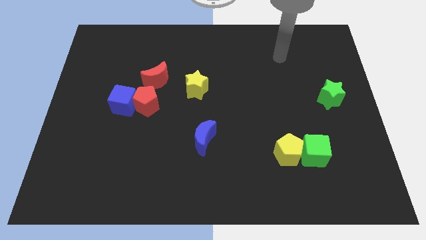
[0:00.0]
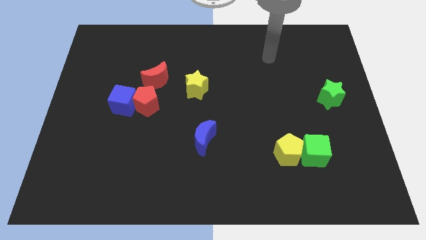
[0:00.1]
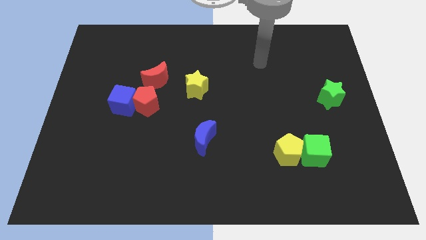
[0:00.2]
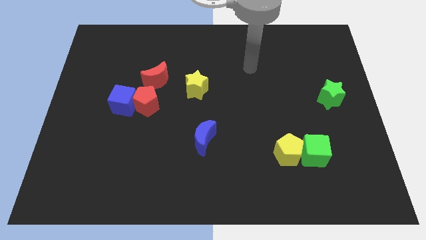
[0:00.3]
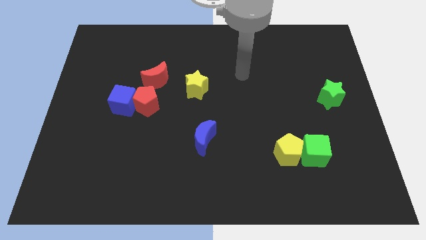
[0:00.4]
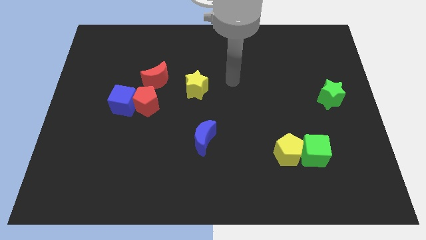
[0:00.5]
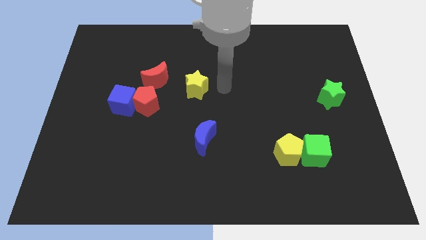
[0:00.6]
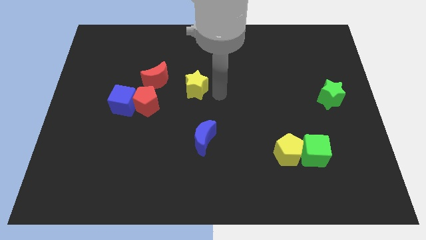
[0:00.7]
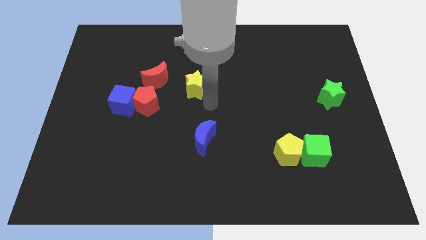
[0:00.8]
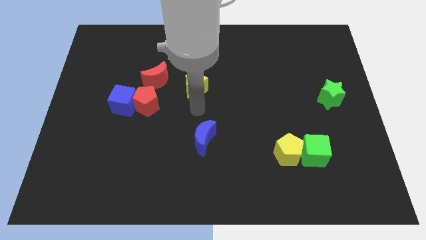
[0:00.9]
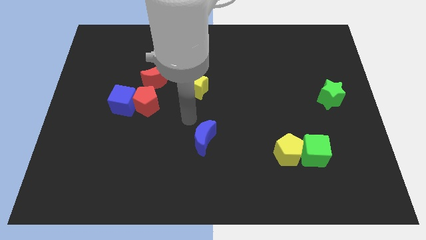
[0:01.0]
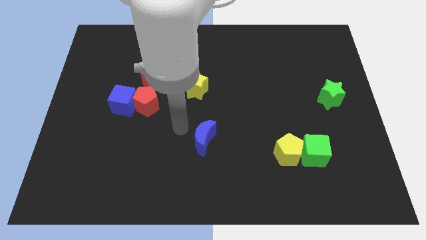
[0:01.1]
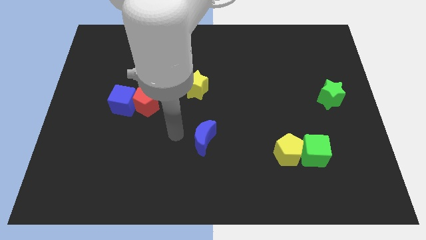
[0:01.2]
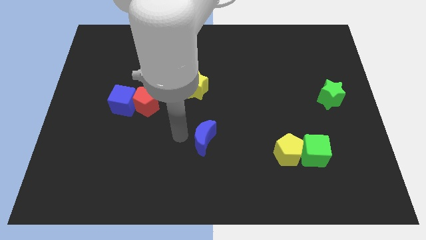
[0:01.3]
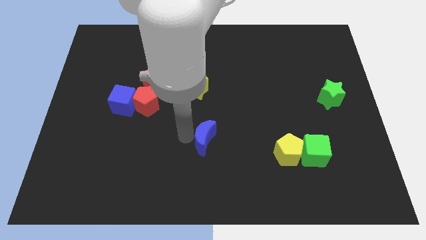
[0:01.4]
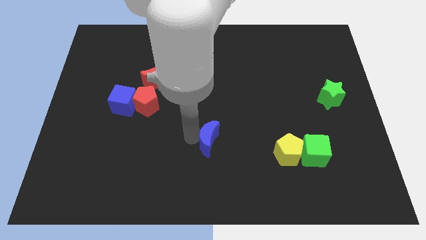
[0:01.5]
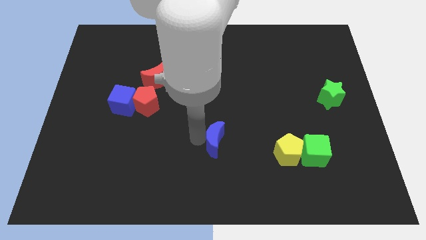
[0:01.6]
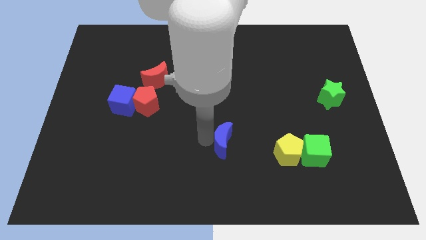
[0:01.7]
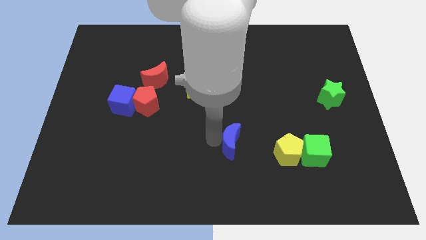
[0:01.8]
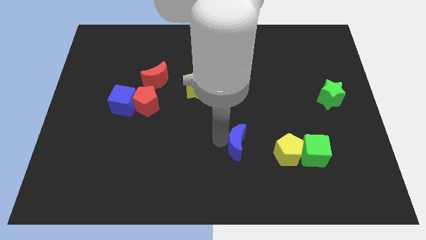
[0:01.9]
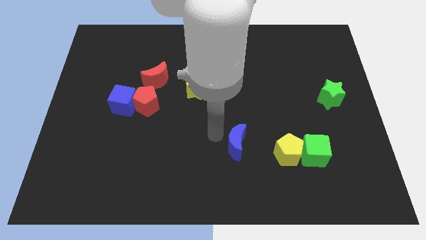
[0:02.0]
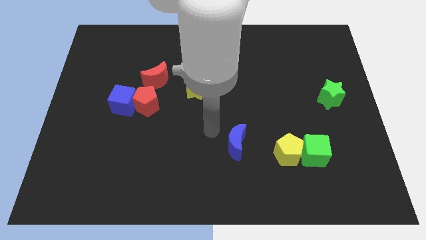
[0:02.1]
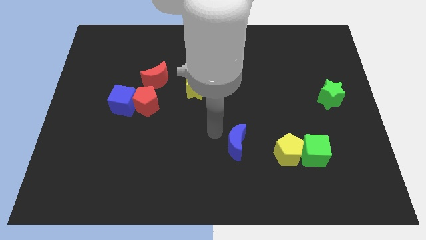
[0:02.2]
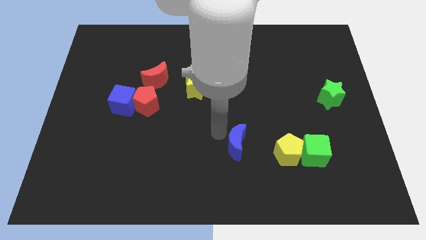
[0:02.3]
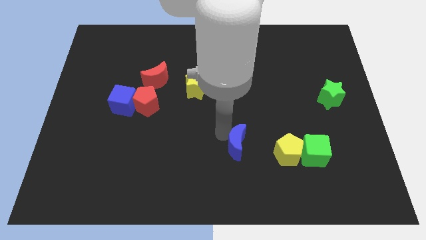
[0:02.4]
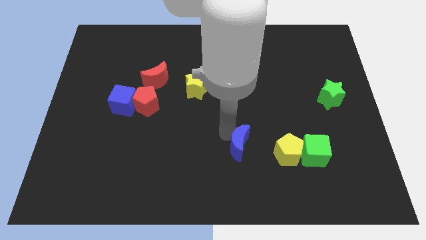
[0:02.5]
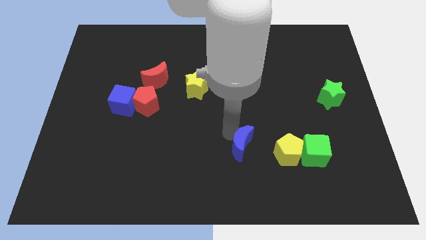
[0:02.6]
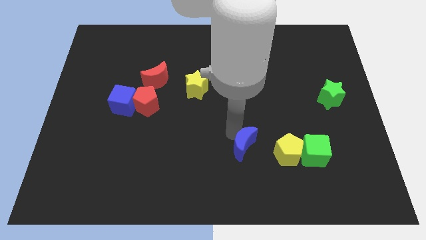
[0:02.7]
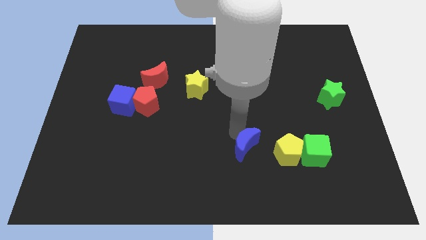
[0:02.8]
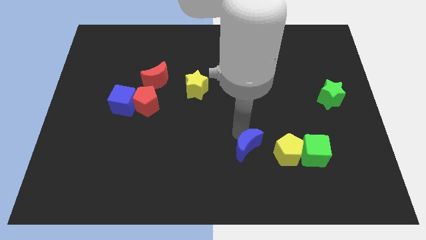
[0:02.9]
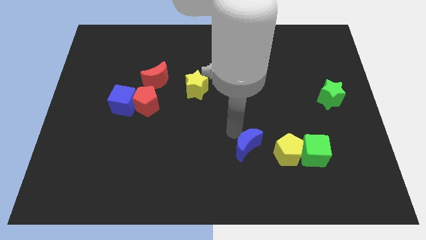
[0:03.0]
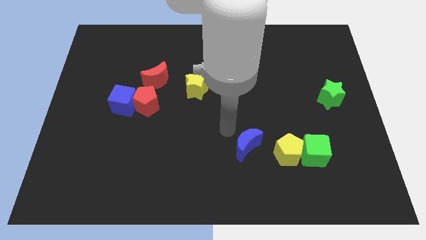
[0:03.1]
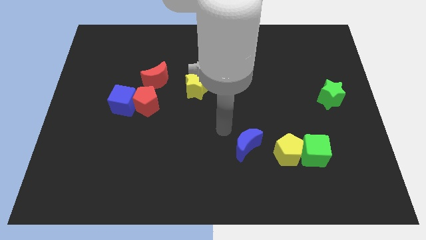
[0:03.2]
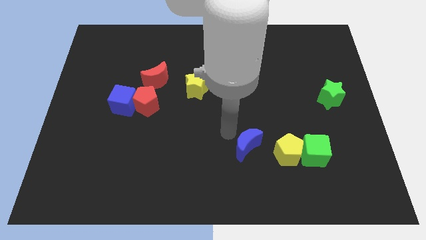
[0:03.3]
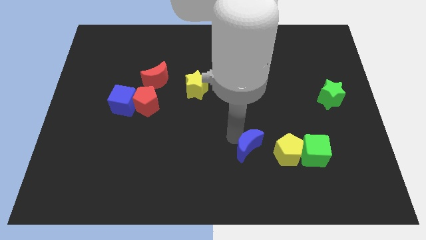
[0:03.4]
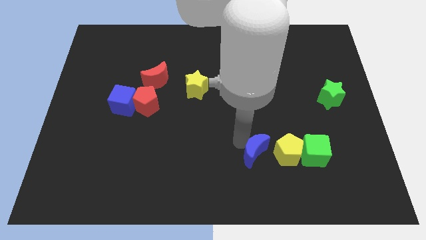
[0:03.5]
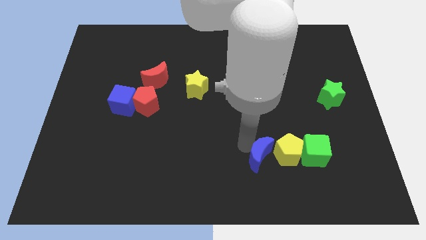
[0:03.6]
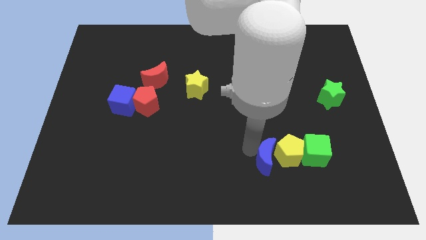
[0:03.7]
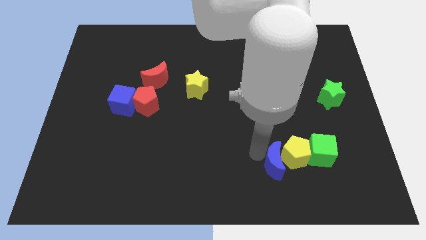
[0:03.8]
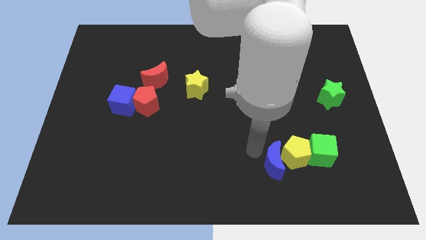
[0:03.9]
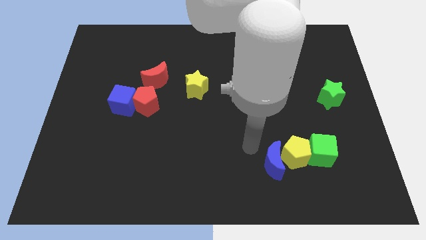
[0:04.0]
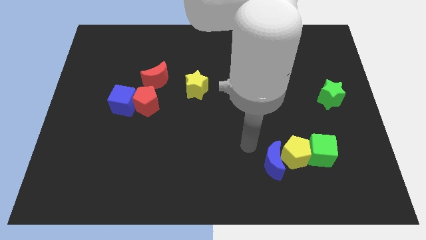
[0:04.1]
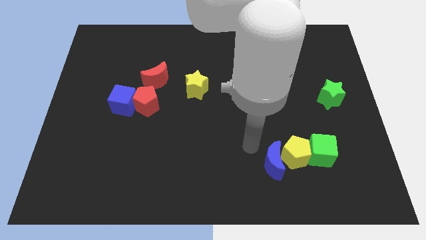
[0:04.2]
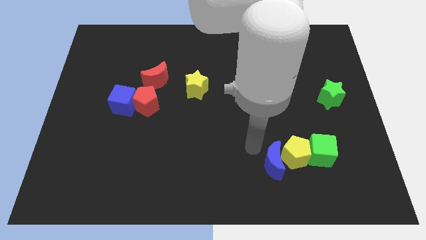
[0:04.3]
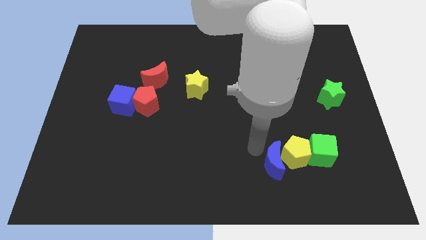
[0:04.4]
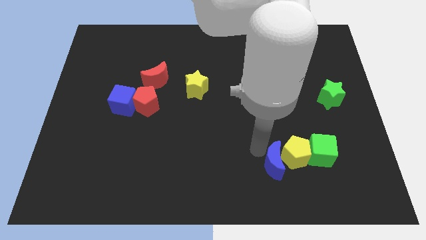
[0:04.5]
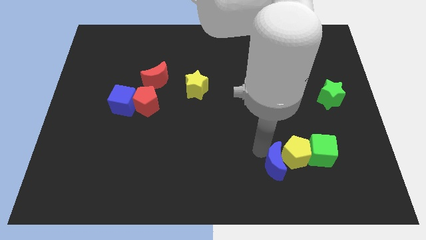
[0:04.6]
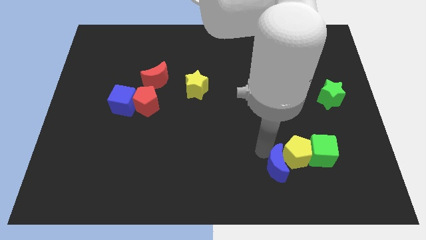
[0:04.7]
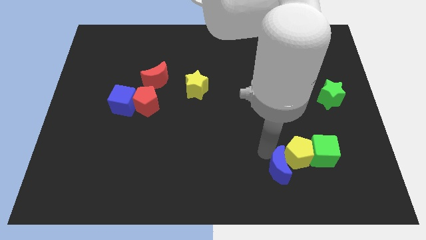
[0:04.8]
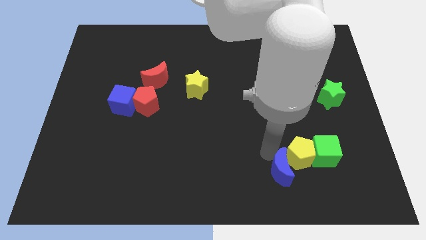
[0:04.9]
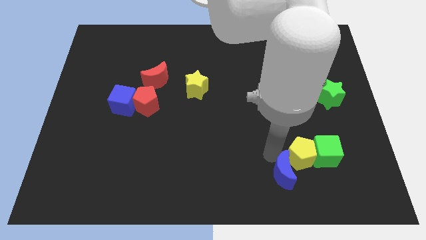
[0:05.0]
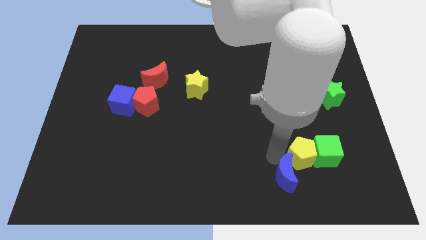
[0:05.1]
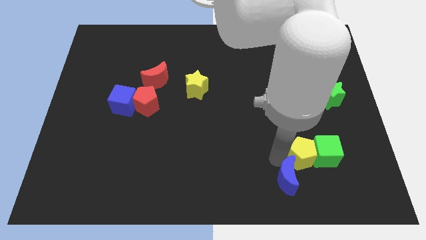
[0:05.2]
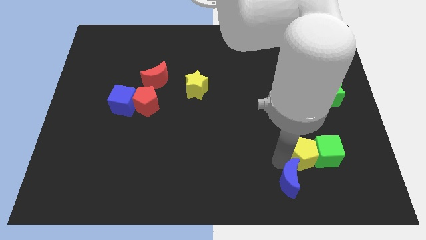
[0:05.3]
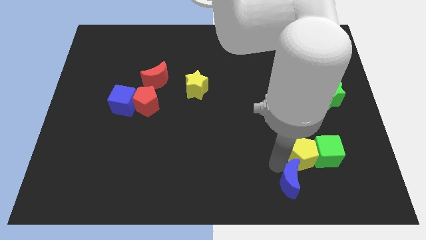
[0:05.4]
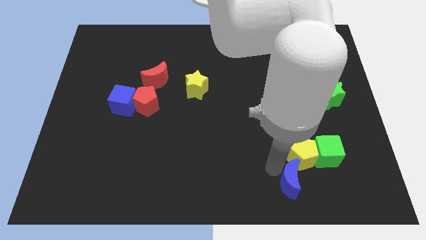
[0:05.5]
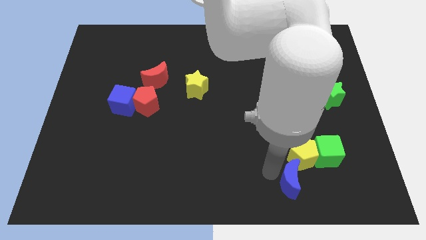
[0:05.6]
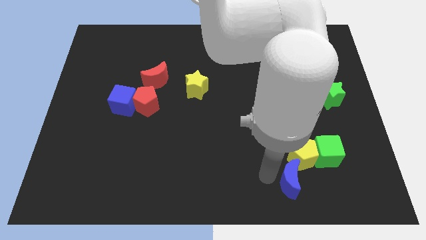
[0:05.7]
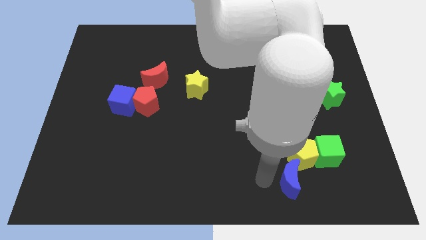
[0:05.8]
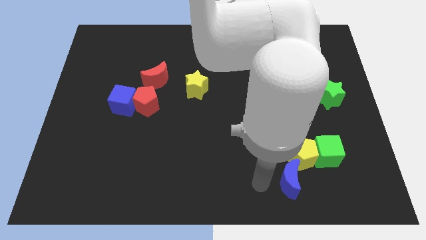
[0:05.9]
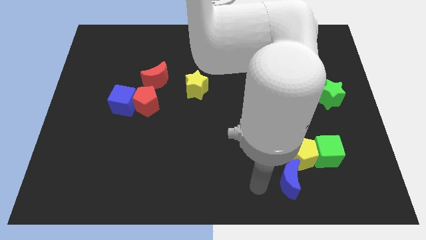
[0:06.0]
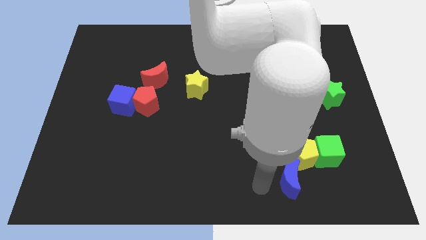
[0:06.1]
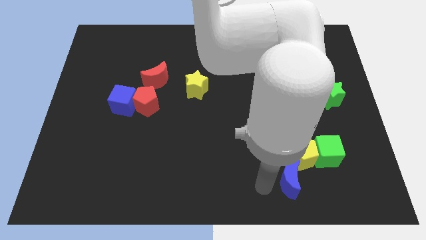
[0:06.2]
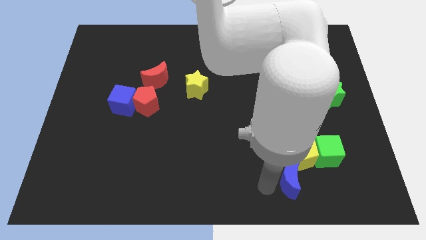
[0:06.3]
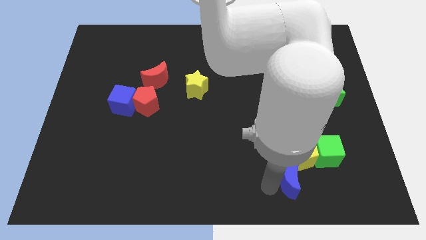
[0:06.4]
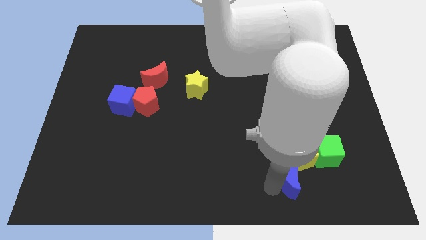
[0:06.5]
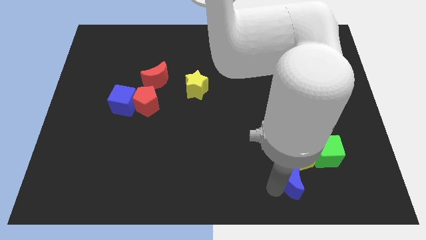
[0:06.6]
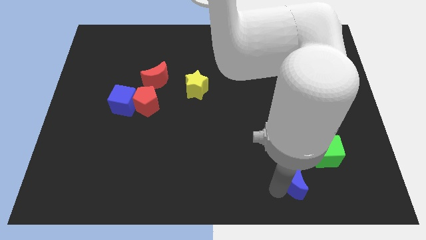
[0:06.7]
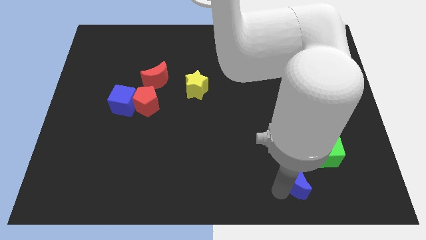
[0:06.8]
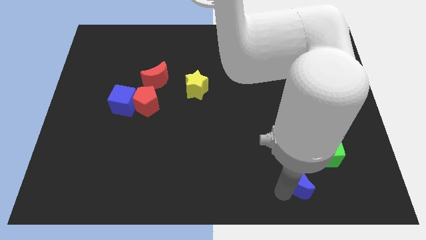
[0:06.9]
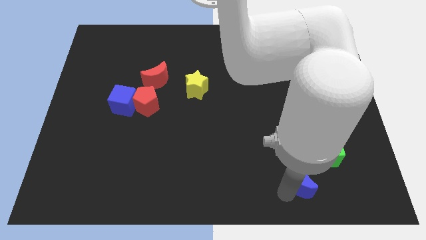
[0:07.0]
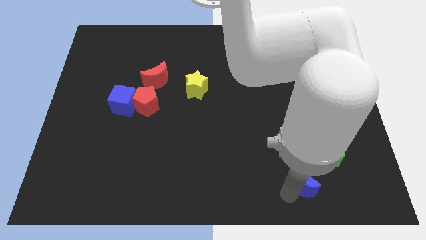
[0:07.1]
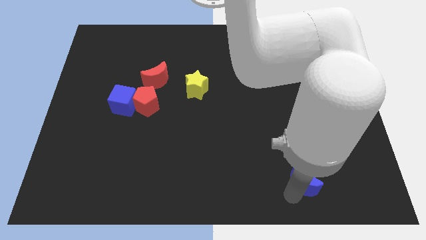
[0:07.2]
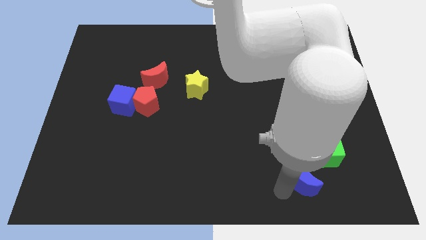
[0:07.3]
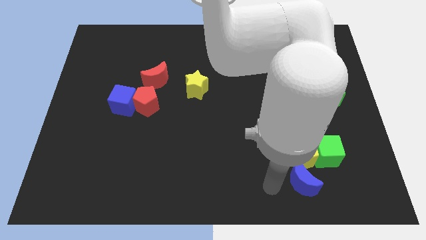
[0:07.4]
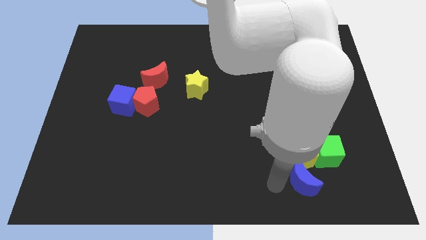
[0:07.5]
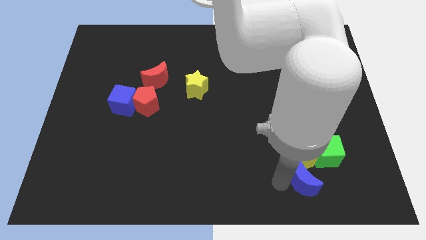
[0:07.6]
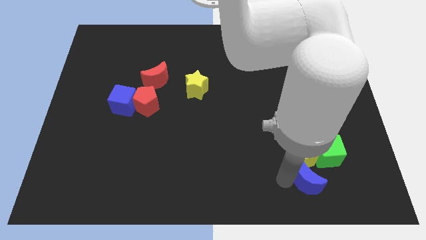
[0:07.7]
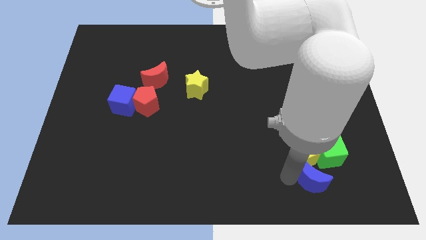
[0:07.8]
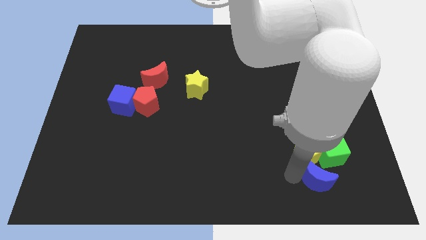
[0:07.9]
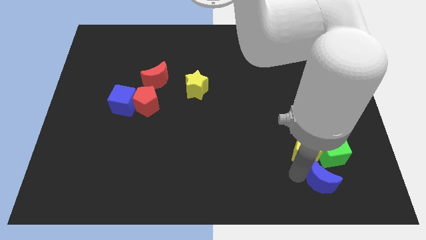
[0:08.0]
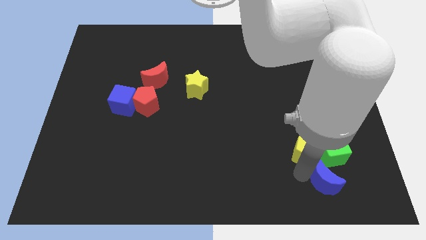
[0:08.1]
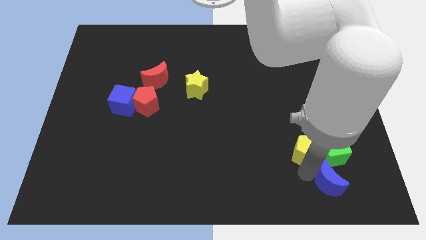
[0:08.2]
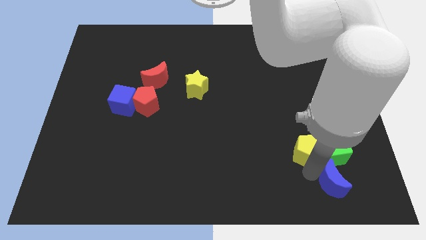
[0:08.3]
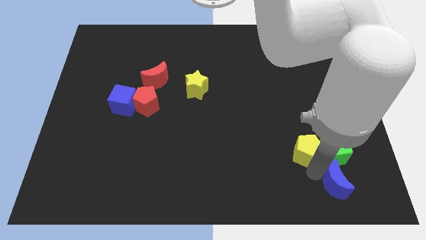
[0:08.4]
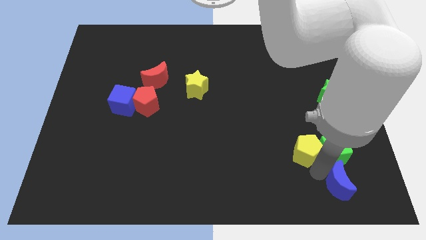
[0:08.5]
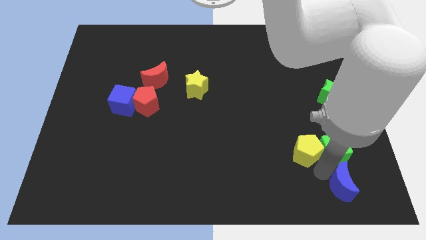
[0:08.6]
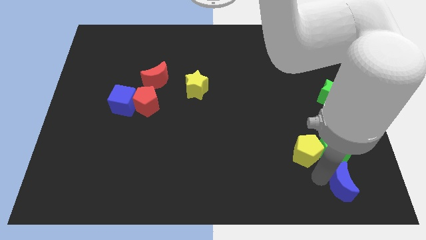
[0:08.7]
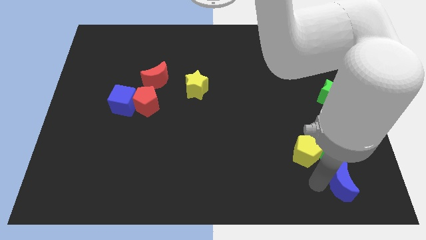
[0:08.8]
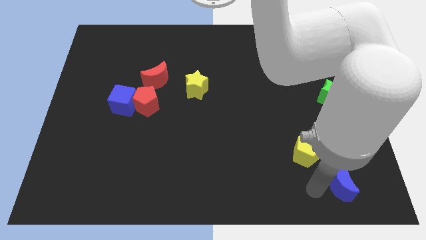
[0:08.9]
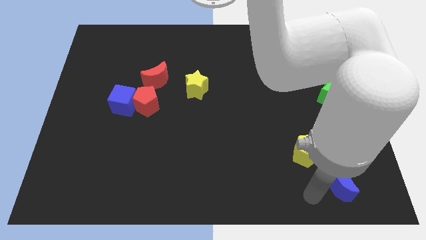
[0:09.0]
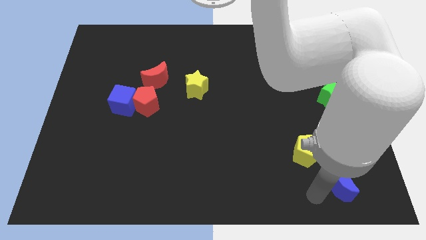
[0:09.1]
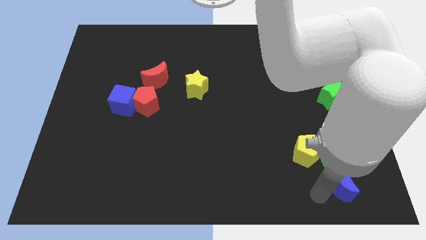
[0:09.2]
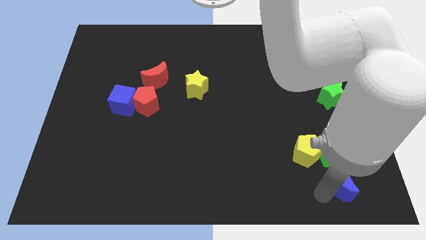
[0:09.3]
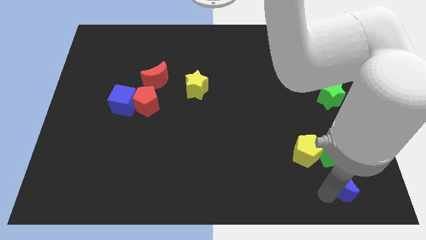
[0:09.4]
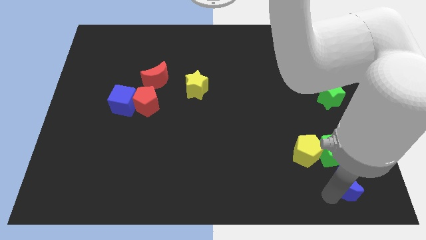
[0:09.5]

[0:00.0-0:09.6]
put the blue moon diagonally down and to the right of the green cube
